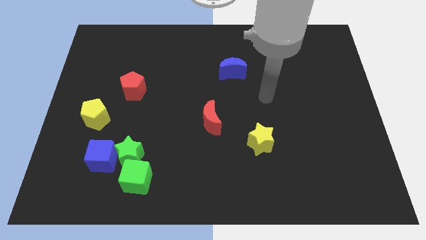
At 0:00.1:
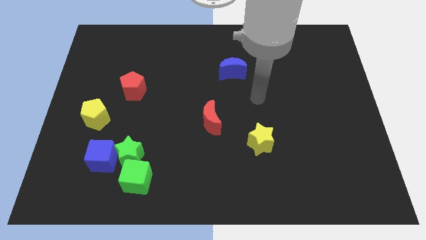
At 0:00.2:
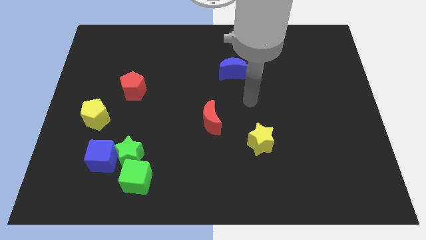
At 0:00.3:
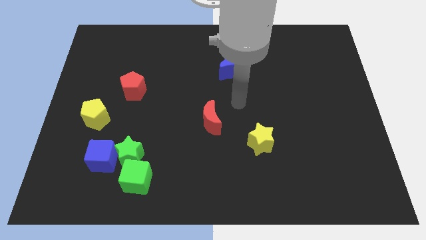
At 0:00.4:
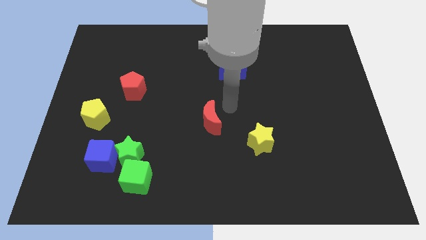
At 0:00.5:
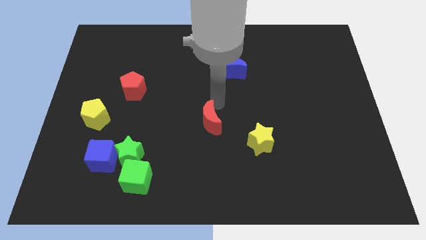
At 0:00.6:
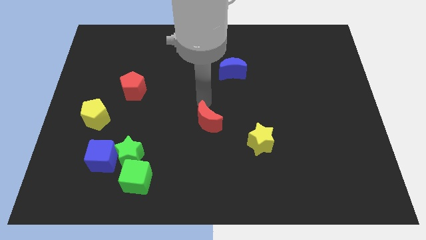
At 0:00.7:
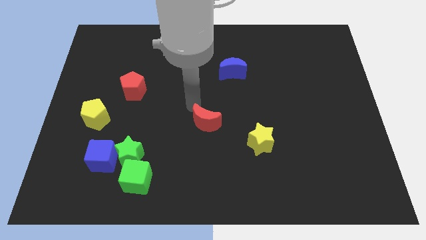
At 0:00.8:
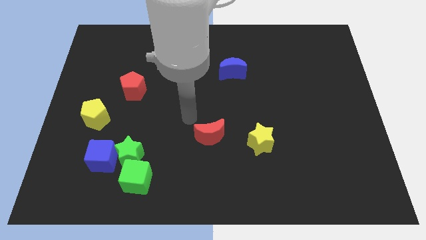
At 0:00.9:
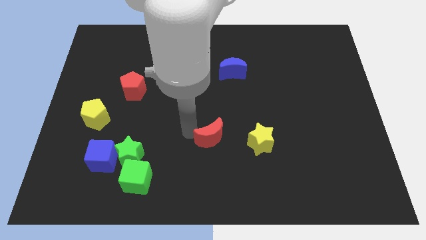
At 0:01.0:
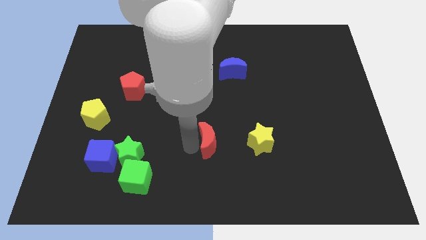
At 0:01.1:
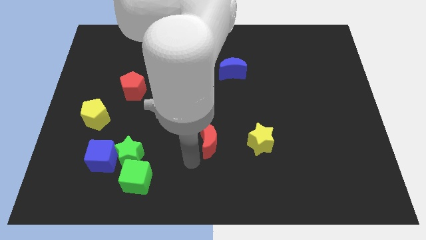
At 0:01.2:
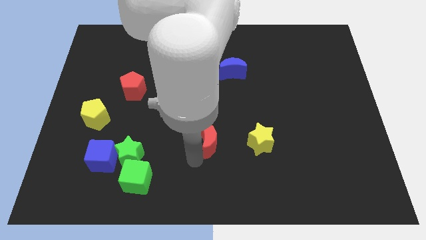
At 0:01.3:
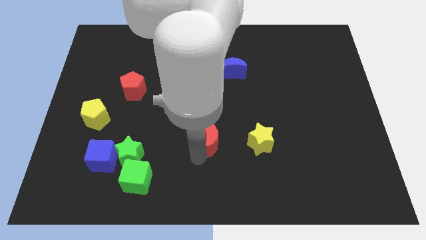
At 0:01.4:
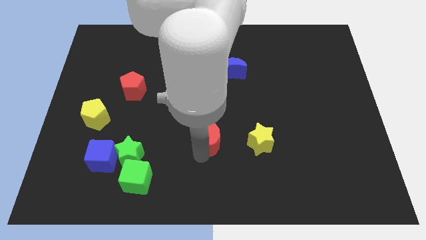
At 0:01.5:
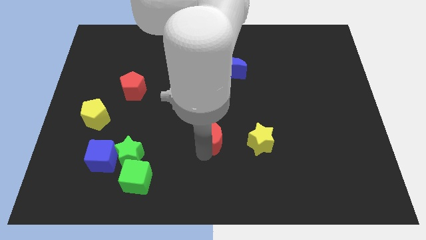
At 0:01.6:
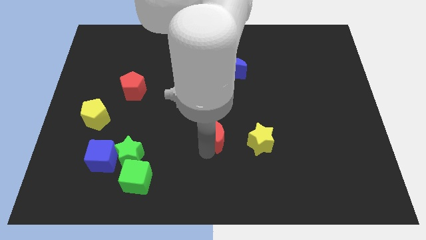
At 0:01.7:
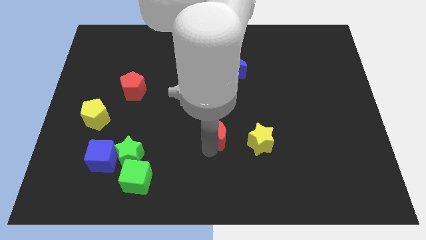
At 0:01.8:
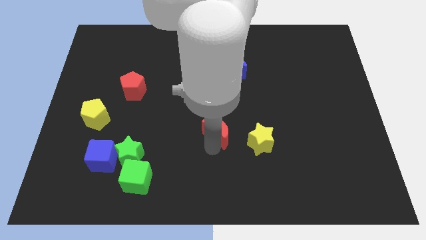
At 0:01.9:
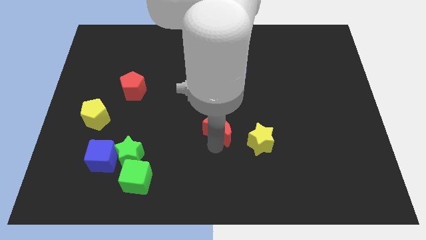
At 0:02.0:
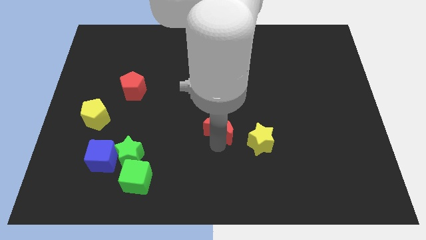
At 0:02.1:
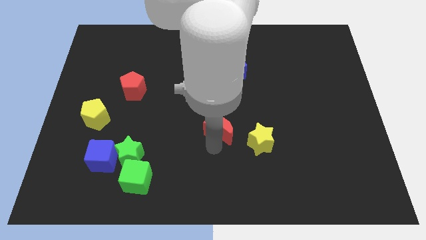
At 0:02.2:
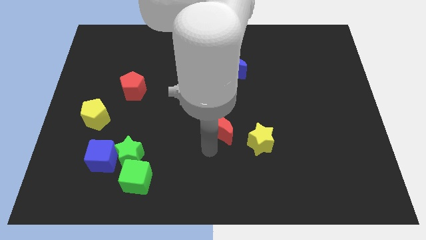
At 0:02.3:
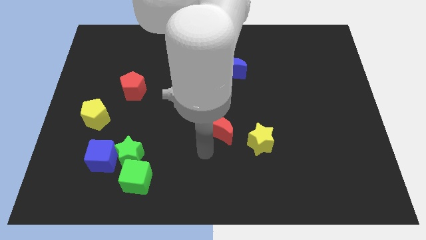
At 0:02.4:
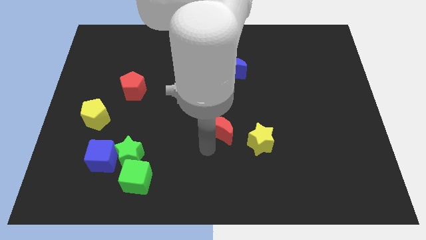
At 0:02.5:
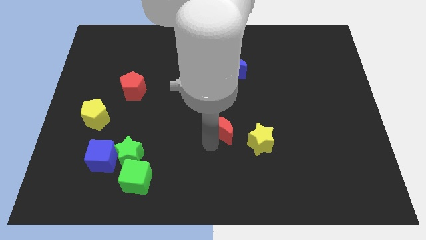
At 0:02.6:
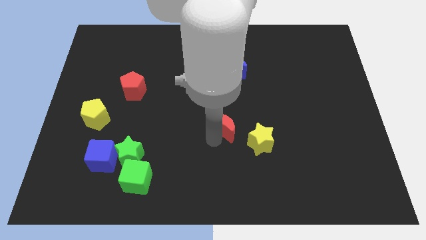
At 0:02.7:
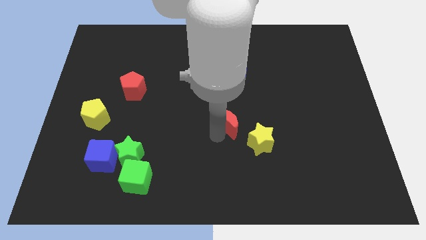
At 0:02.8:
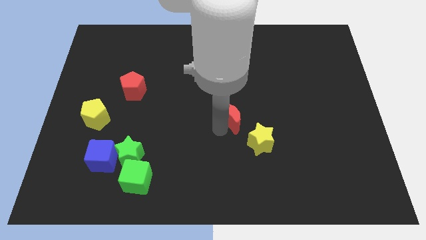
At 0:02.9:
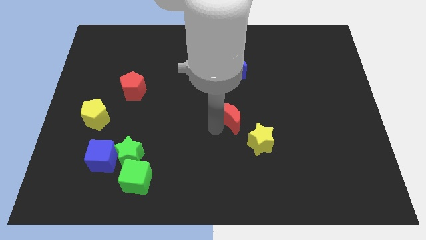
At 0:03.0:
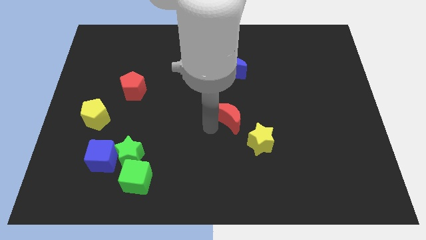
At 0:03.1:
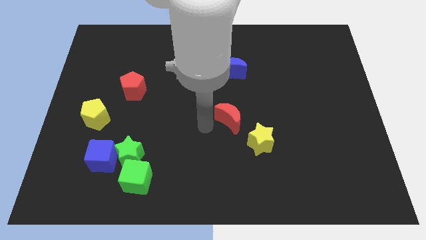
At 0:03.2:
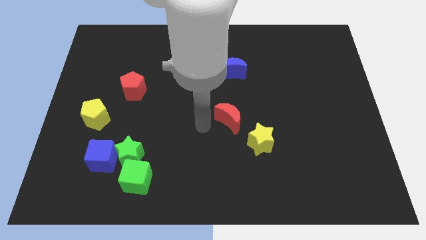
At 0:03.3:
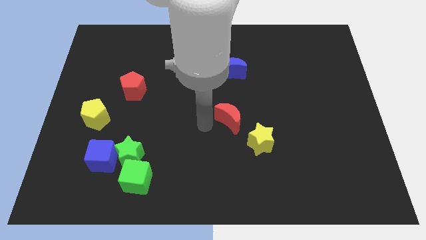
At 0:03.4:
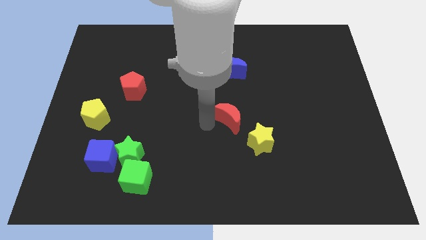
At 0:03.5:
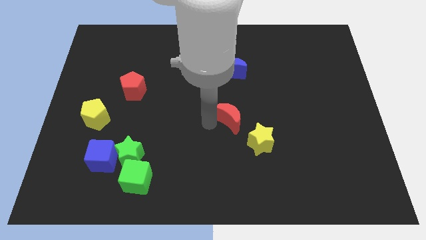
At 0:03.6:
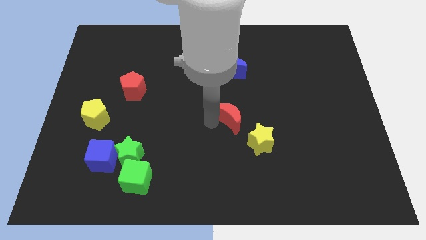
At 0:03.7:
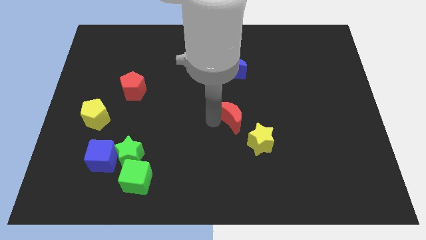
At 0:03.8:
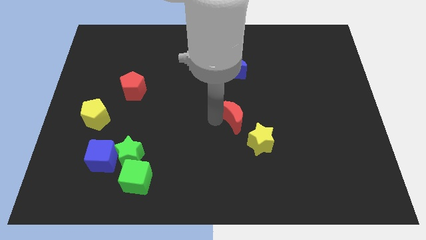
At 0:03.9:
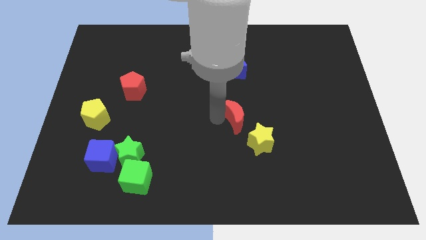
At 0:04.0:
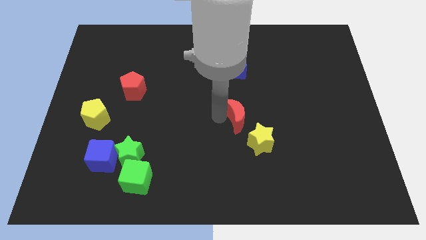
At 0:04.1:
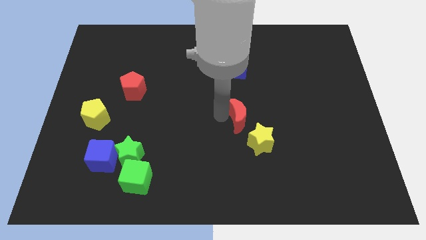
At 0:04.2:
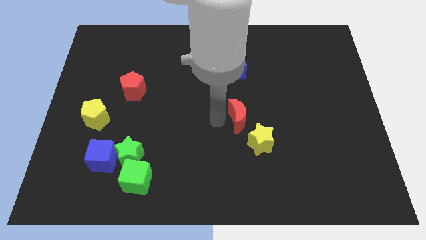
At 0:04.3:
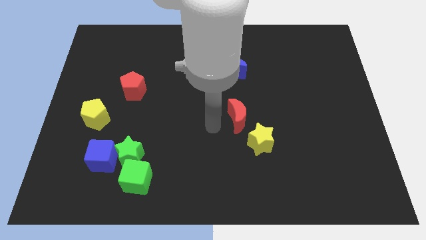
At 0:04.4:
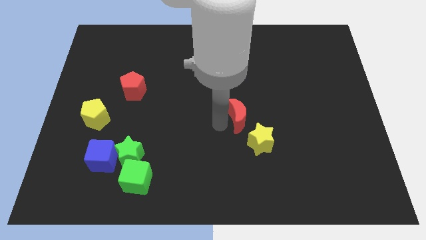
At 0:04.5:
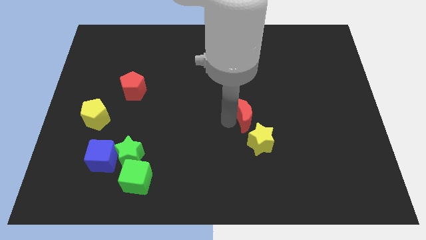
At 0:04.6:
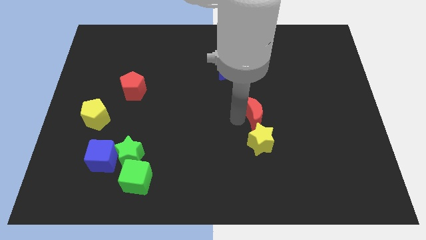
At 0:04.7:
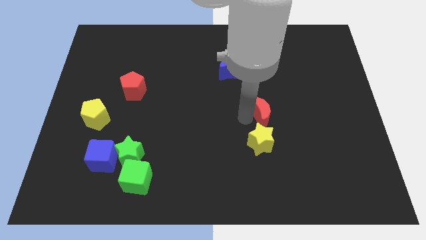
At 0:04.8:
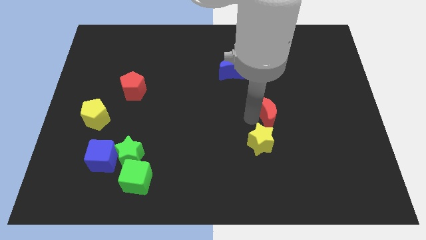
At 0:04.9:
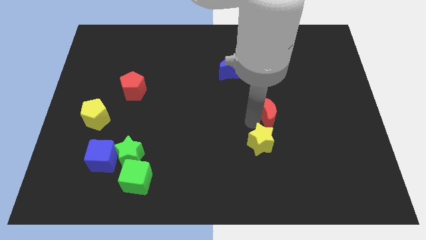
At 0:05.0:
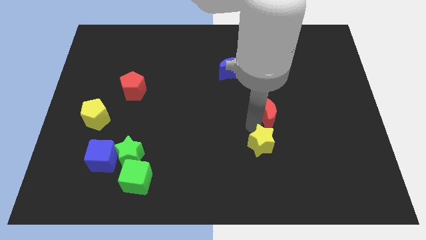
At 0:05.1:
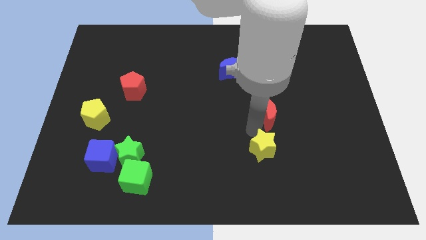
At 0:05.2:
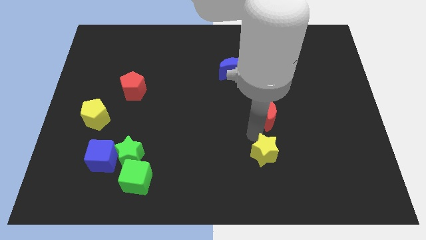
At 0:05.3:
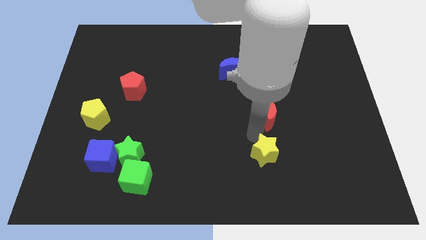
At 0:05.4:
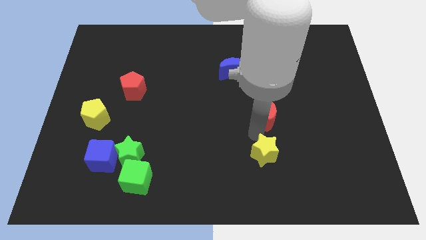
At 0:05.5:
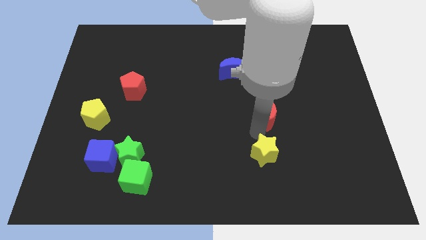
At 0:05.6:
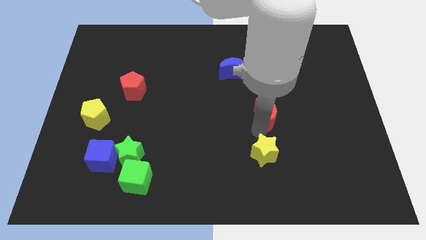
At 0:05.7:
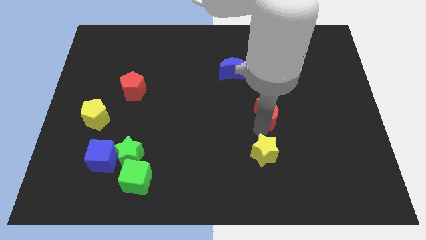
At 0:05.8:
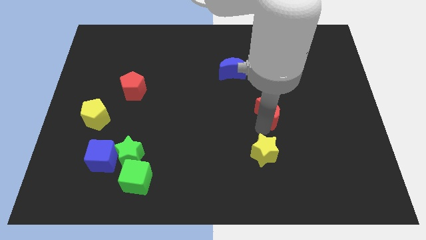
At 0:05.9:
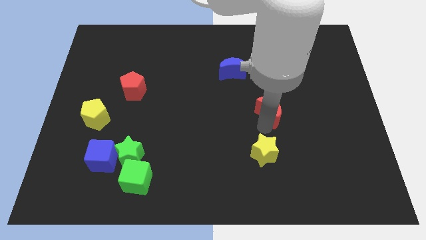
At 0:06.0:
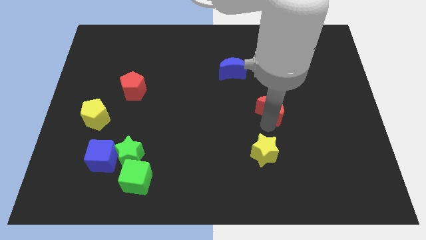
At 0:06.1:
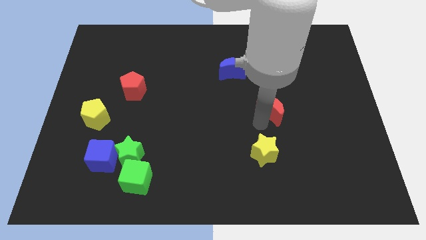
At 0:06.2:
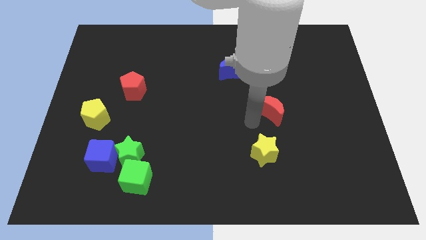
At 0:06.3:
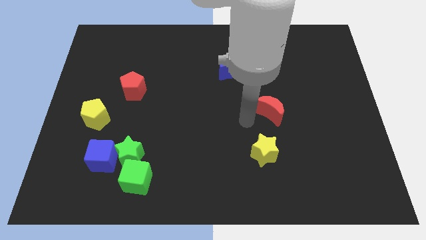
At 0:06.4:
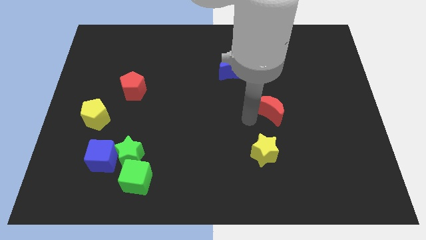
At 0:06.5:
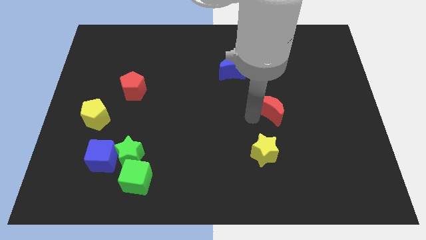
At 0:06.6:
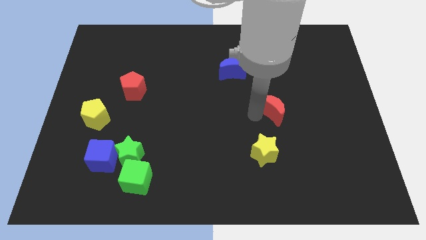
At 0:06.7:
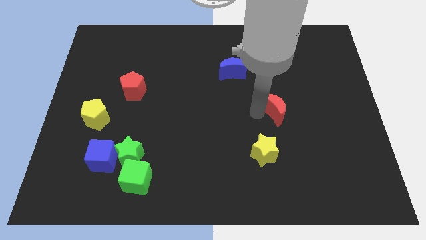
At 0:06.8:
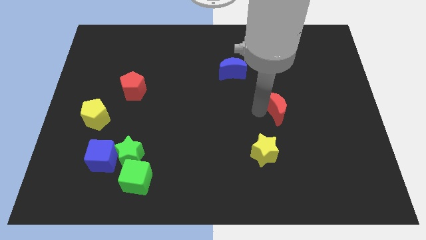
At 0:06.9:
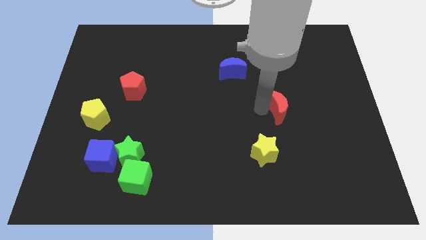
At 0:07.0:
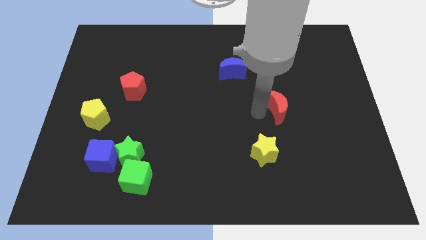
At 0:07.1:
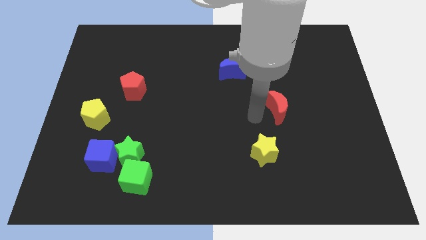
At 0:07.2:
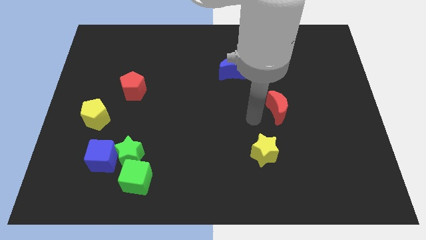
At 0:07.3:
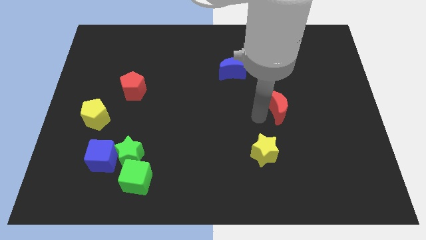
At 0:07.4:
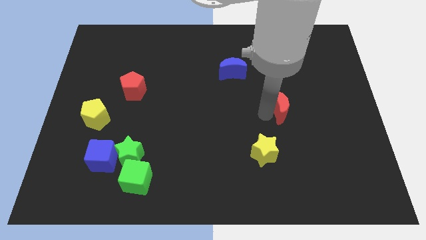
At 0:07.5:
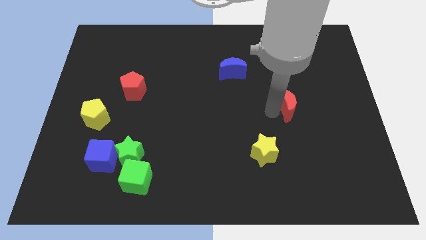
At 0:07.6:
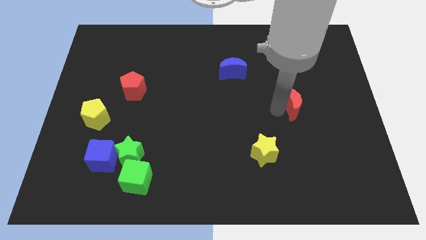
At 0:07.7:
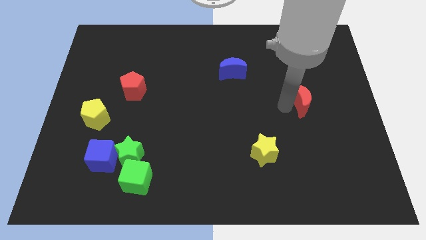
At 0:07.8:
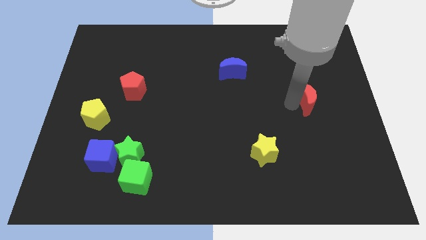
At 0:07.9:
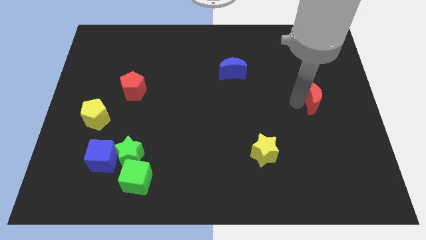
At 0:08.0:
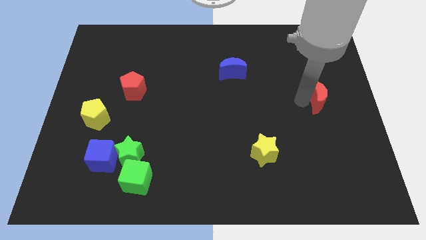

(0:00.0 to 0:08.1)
put the red moon to the center right
